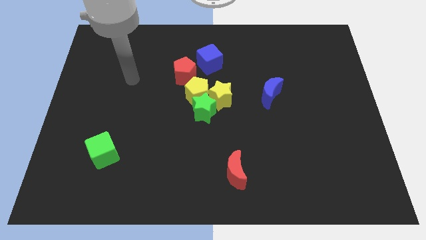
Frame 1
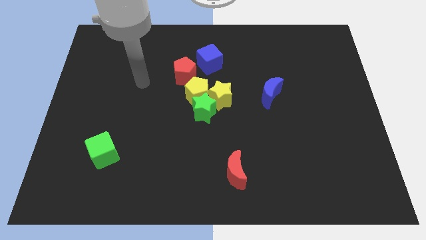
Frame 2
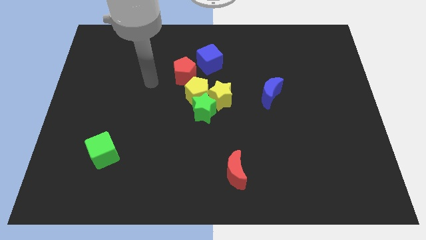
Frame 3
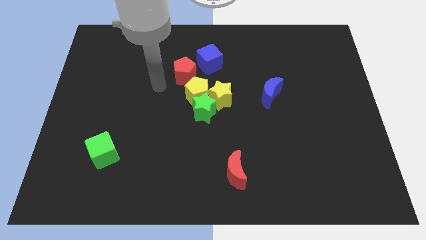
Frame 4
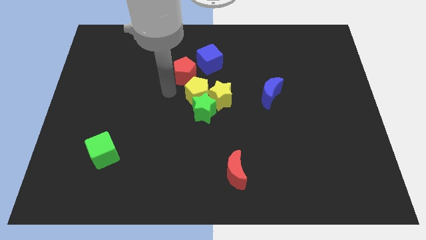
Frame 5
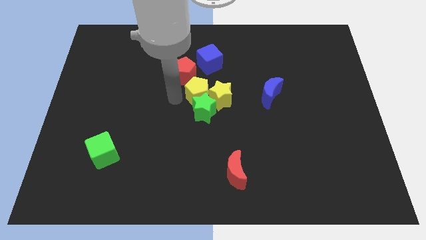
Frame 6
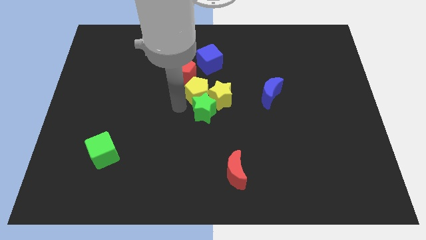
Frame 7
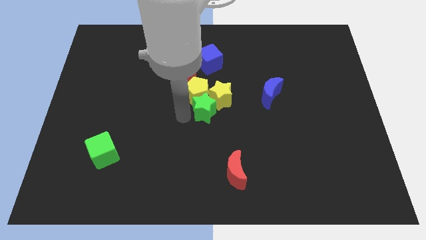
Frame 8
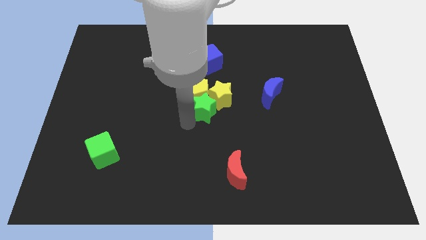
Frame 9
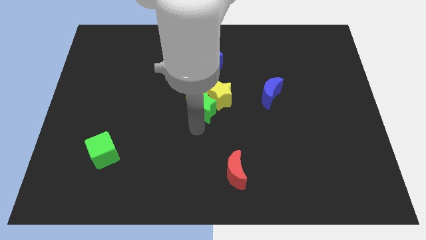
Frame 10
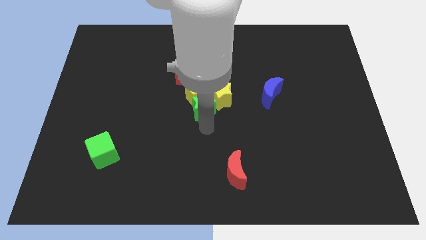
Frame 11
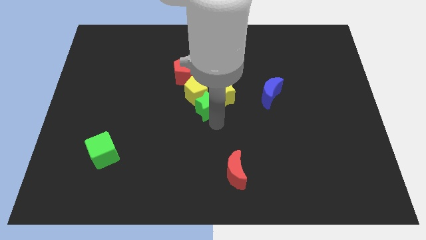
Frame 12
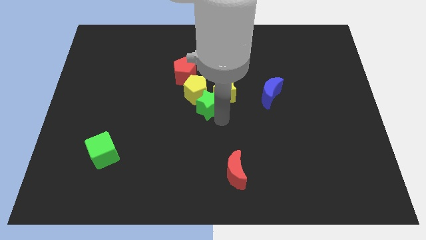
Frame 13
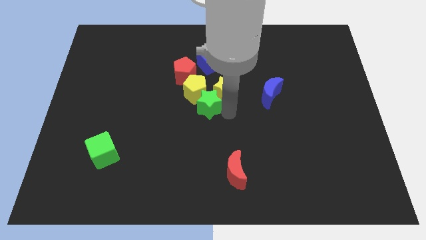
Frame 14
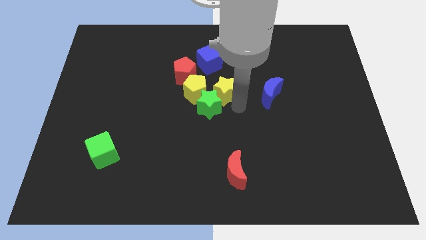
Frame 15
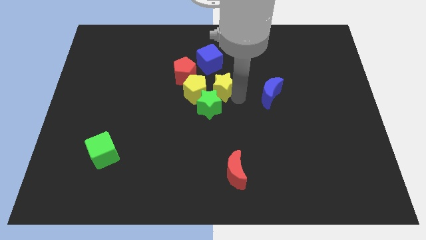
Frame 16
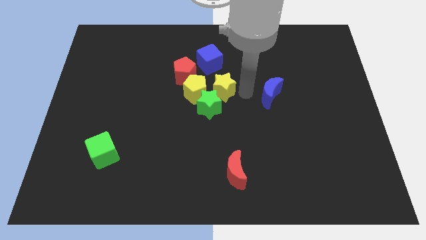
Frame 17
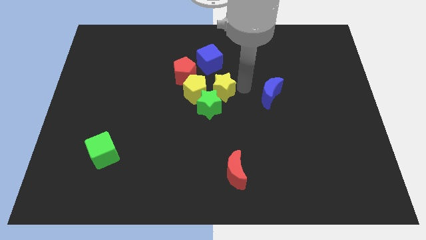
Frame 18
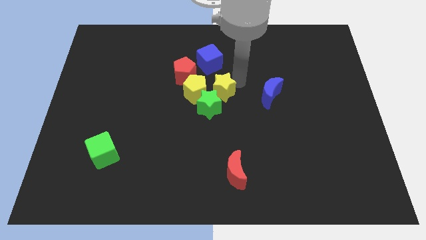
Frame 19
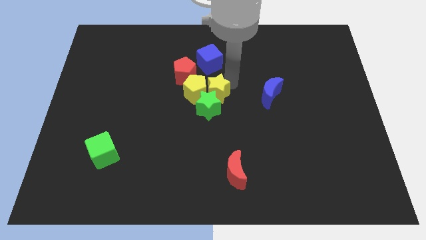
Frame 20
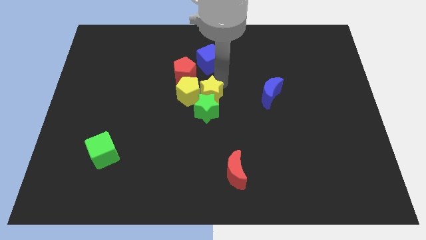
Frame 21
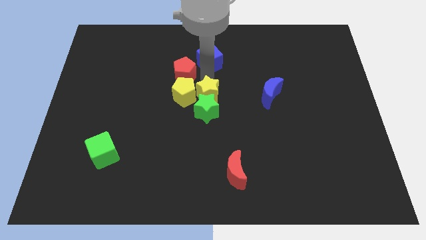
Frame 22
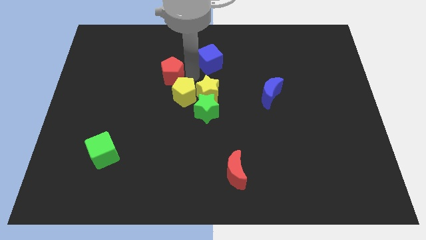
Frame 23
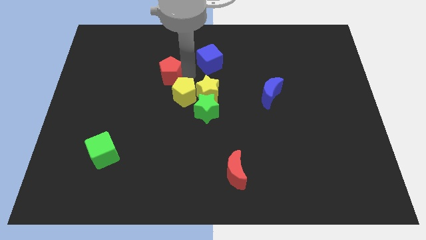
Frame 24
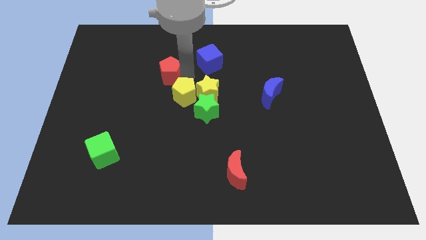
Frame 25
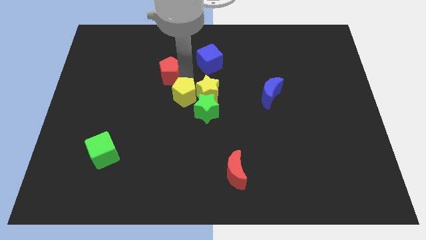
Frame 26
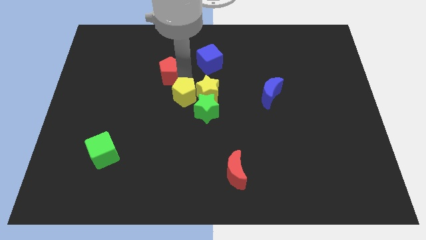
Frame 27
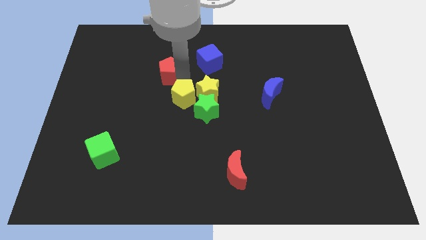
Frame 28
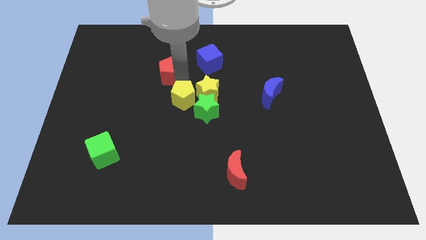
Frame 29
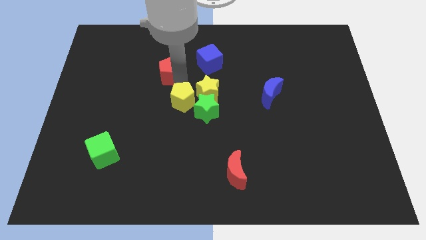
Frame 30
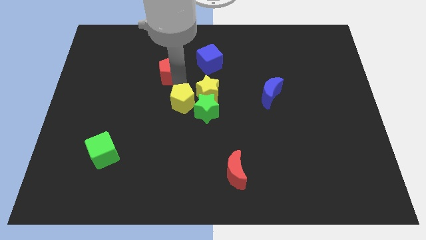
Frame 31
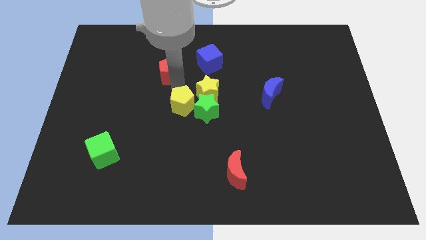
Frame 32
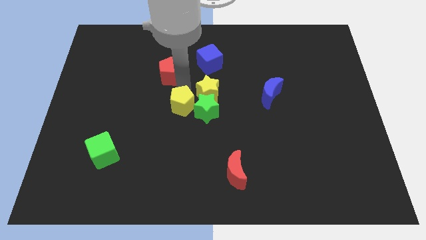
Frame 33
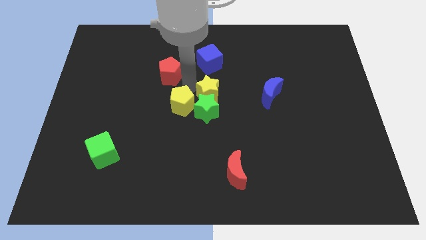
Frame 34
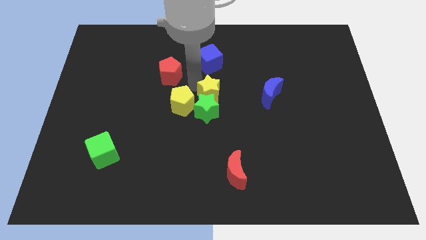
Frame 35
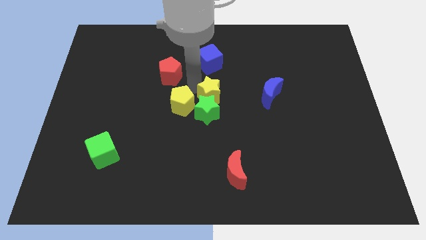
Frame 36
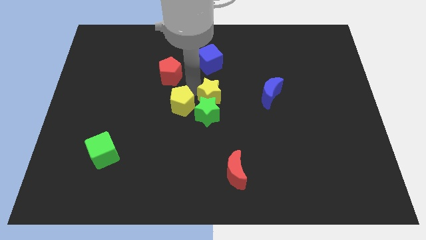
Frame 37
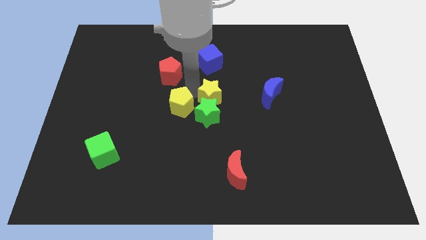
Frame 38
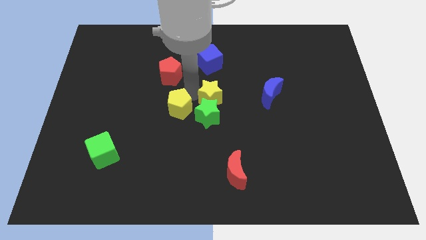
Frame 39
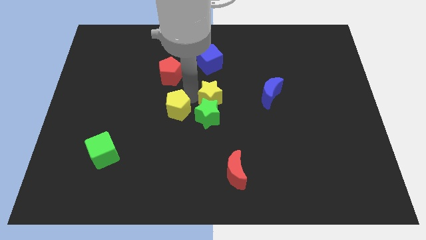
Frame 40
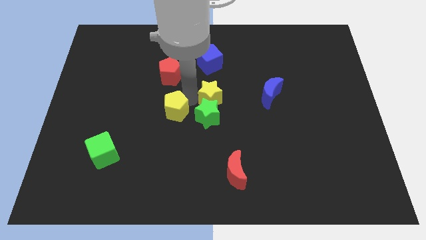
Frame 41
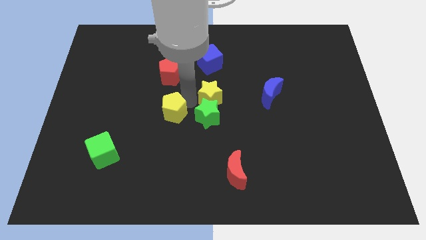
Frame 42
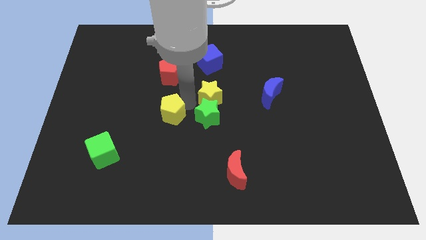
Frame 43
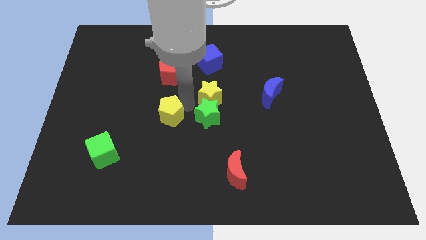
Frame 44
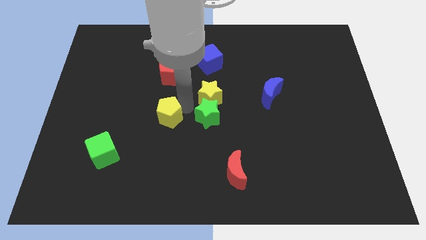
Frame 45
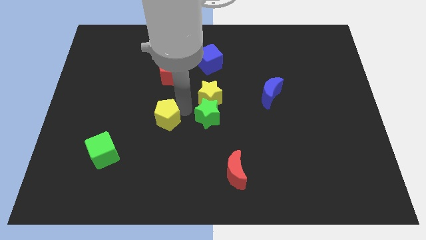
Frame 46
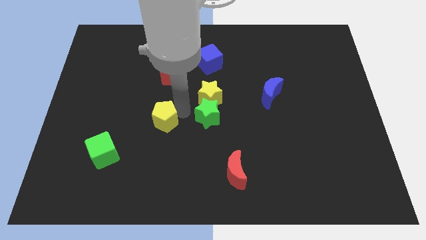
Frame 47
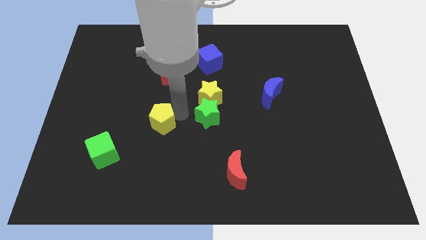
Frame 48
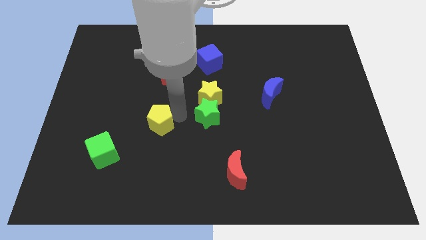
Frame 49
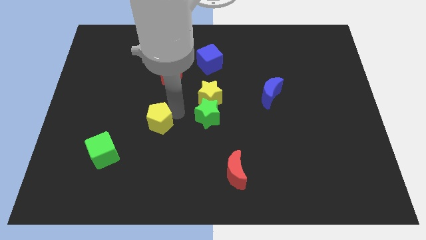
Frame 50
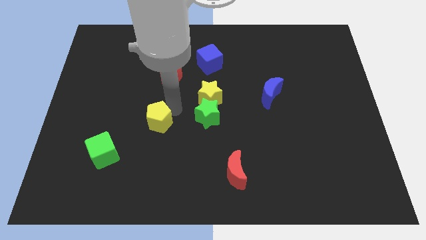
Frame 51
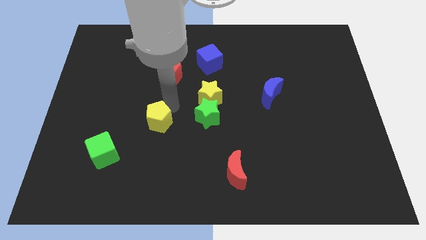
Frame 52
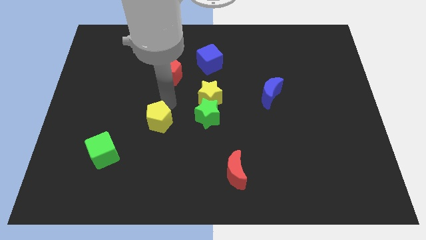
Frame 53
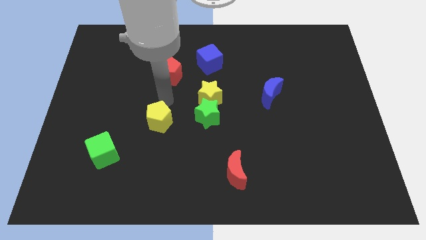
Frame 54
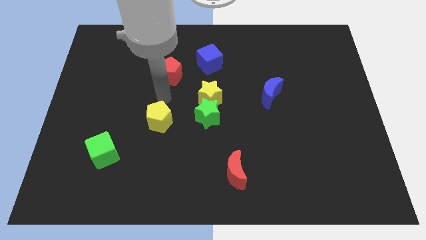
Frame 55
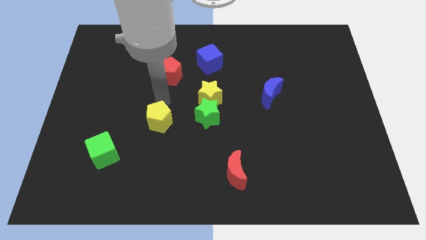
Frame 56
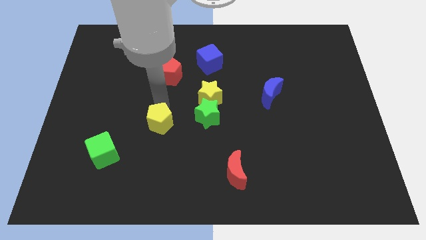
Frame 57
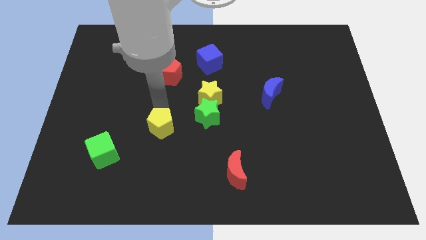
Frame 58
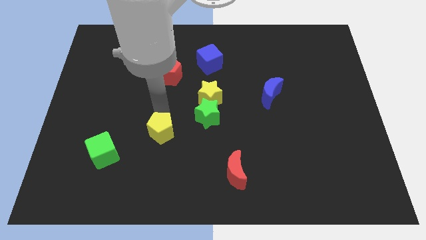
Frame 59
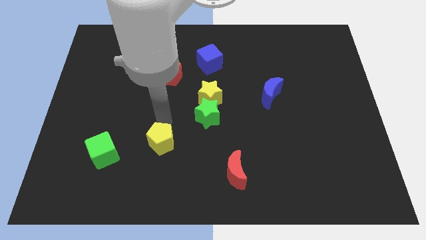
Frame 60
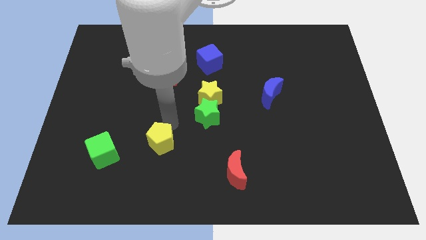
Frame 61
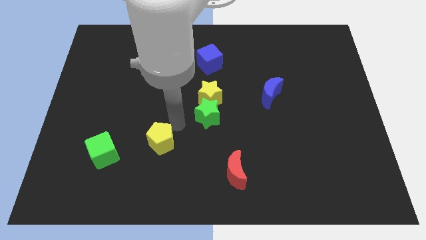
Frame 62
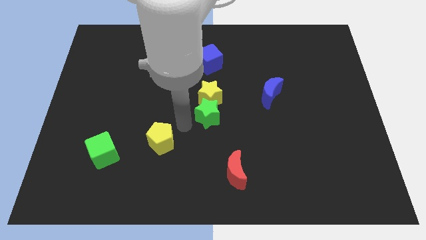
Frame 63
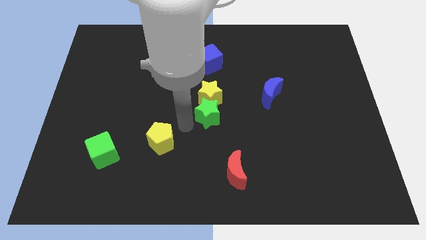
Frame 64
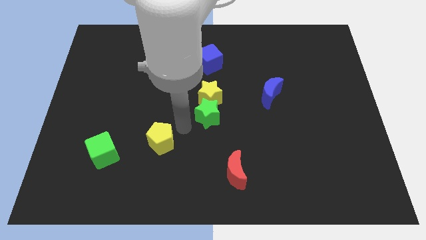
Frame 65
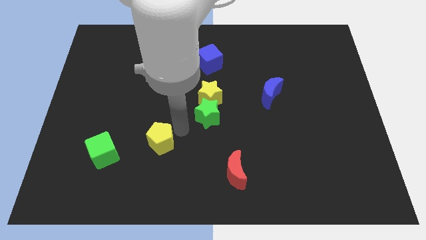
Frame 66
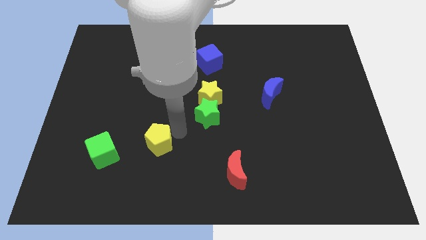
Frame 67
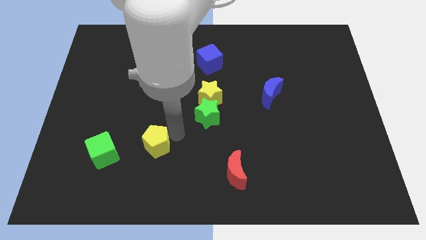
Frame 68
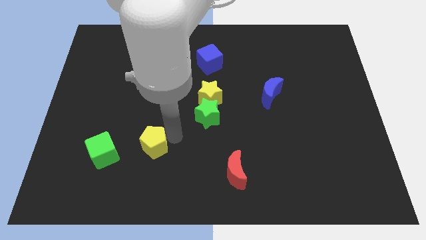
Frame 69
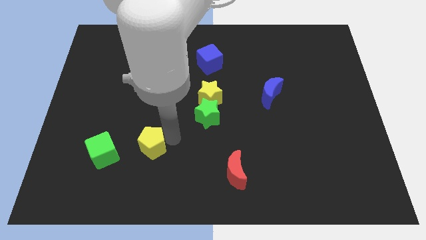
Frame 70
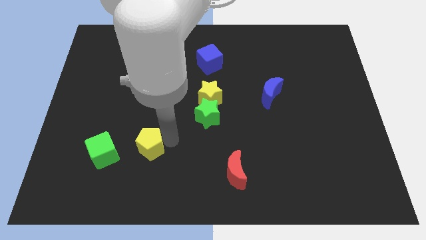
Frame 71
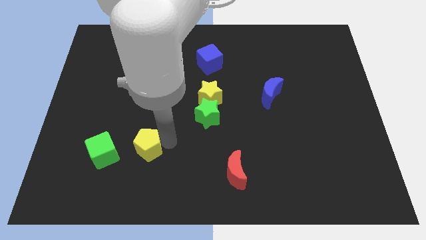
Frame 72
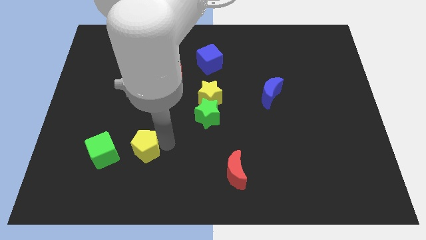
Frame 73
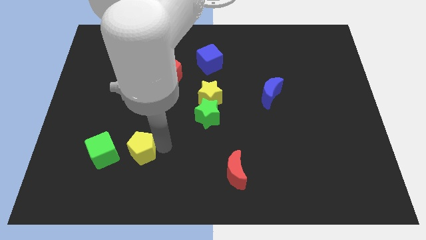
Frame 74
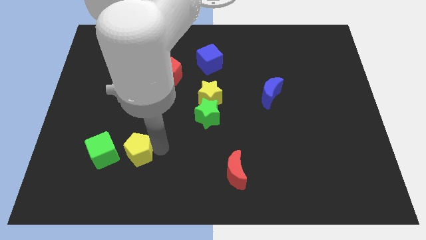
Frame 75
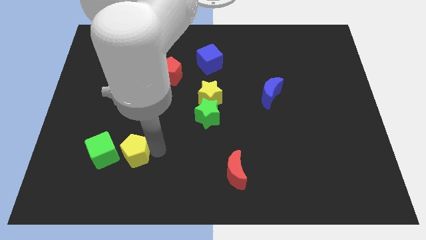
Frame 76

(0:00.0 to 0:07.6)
slide the yellow pentagon downwards and to the left diagonally

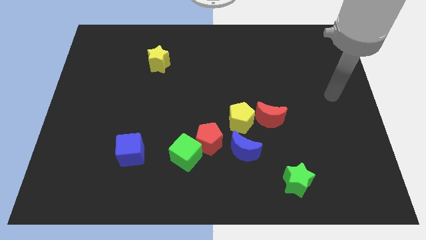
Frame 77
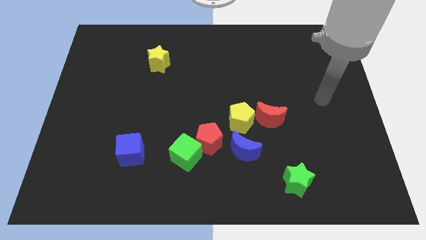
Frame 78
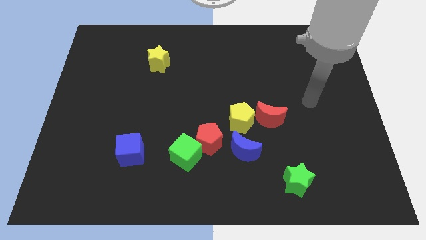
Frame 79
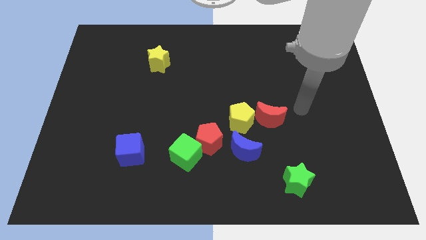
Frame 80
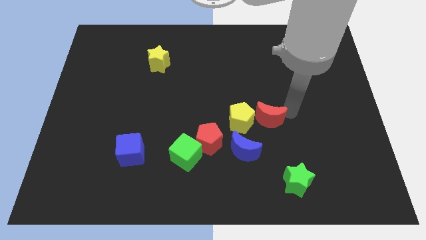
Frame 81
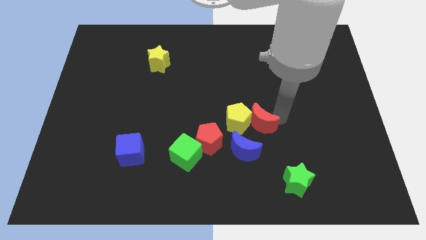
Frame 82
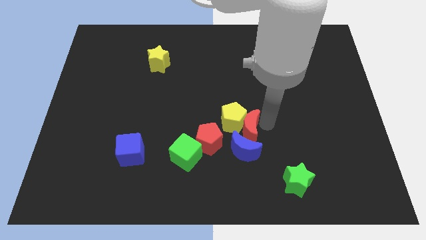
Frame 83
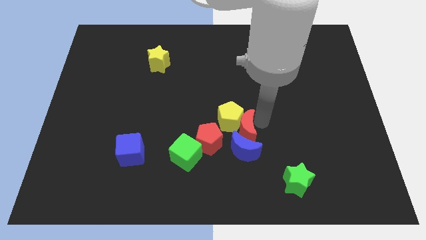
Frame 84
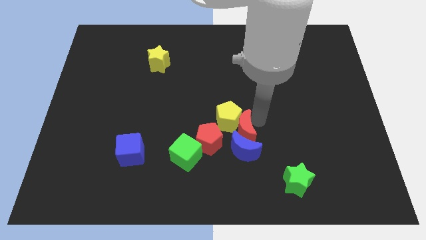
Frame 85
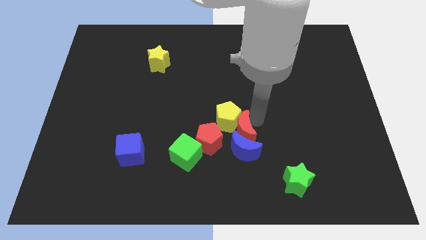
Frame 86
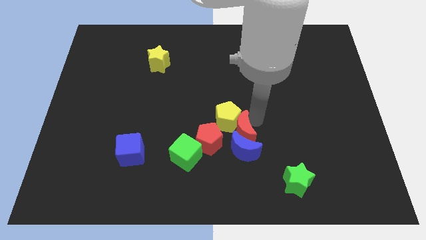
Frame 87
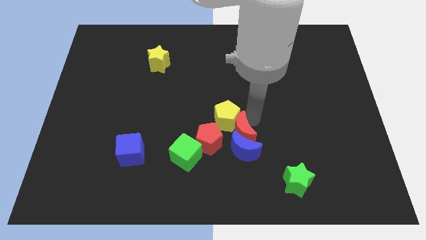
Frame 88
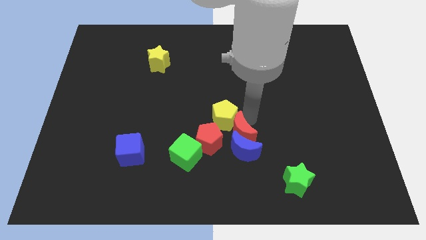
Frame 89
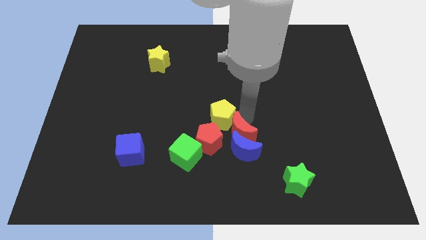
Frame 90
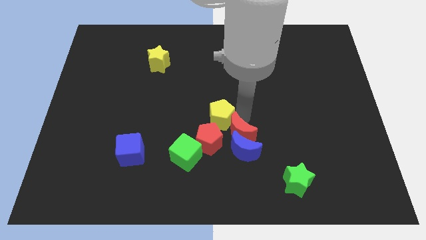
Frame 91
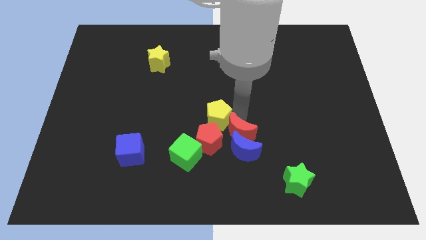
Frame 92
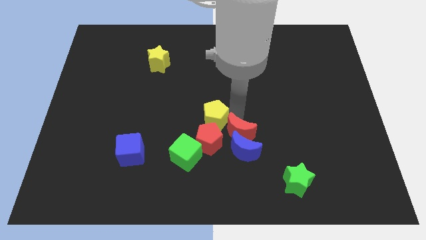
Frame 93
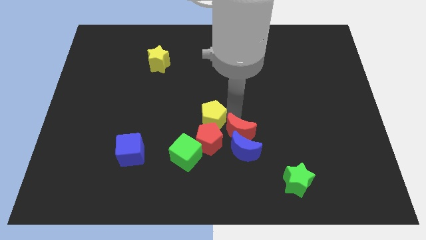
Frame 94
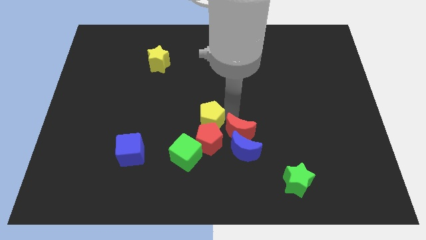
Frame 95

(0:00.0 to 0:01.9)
slightly push the yellow pentagon to the left
